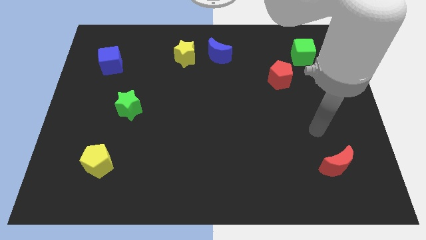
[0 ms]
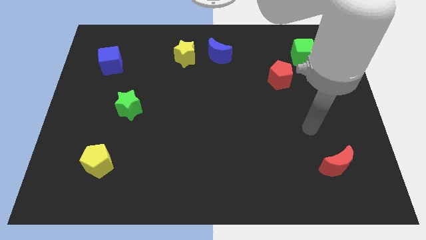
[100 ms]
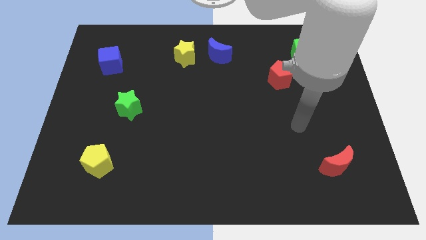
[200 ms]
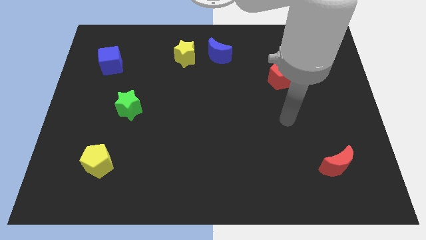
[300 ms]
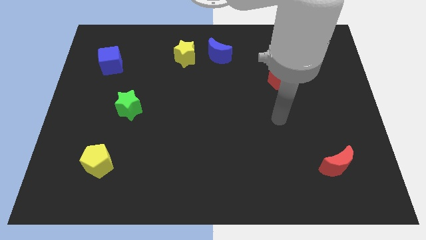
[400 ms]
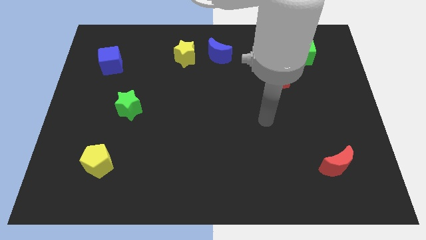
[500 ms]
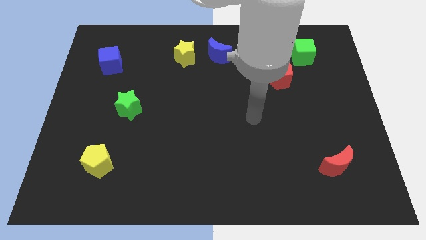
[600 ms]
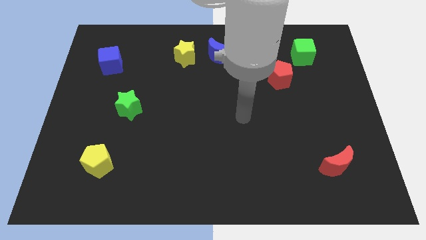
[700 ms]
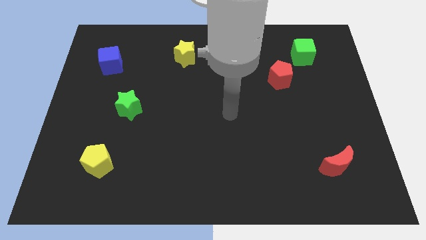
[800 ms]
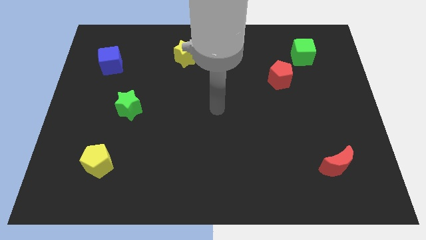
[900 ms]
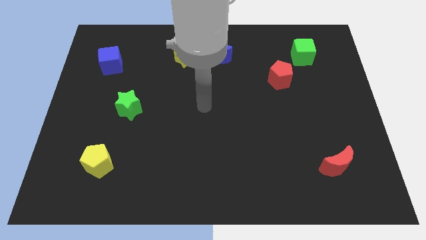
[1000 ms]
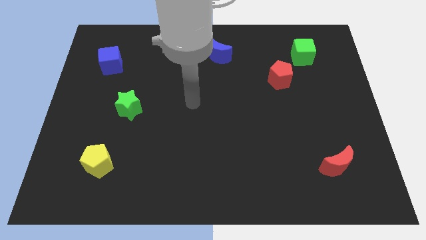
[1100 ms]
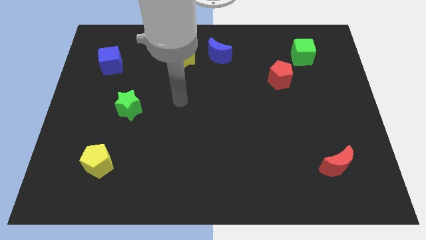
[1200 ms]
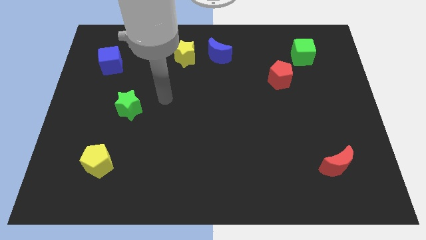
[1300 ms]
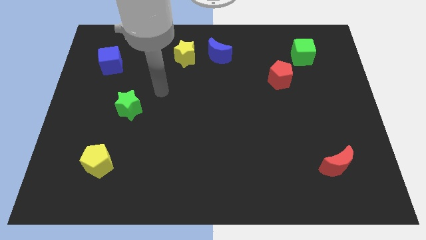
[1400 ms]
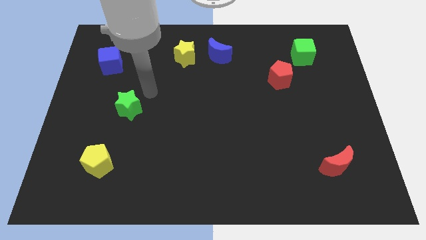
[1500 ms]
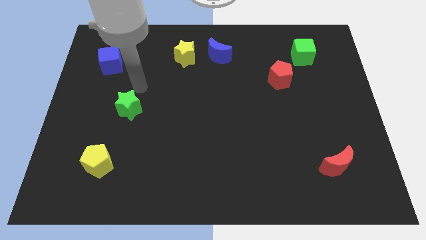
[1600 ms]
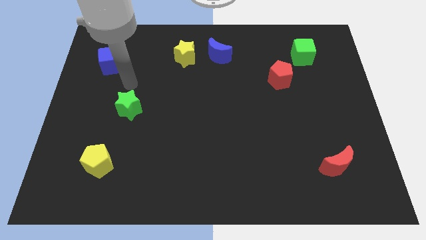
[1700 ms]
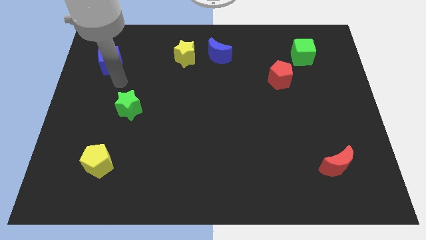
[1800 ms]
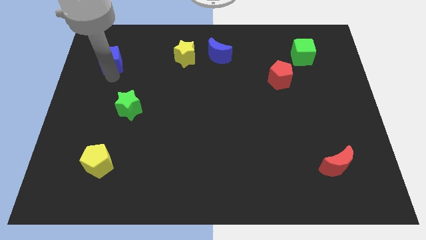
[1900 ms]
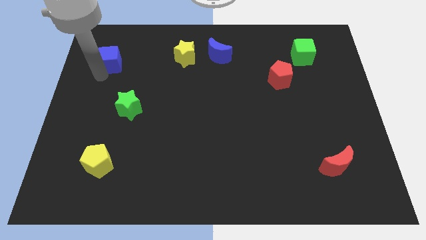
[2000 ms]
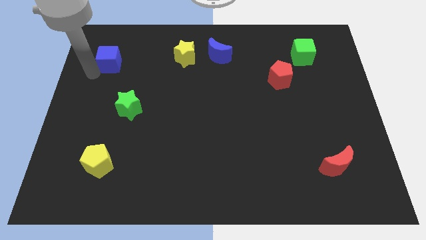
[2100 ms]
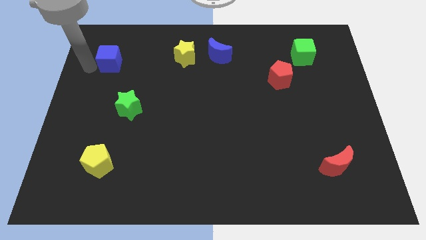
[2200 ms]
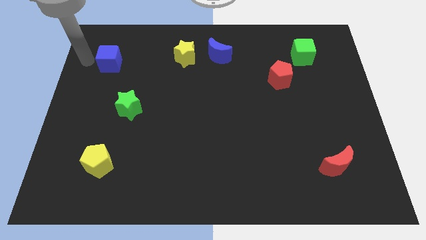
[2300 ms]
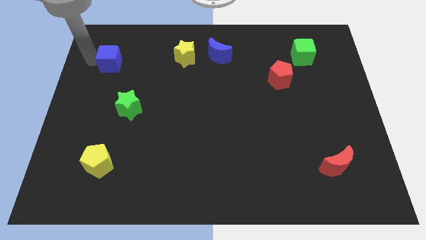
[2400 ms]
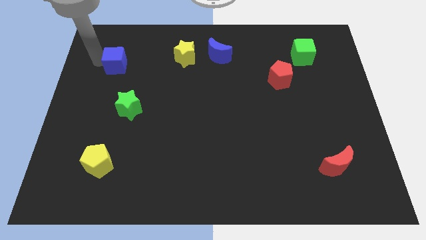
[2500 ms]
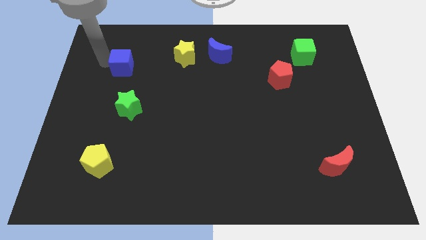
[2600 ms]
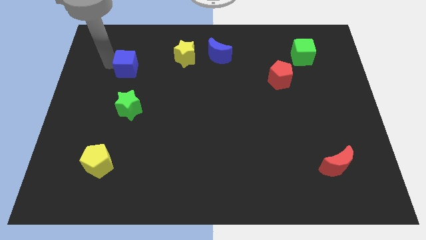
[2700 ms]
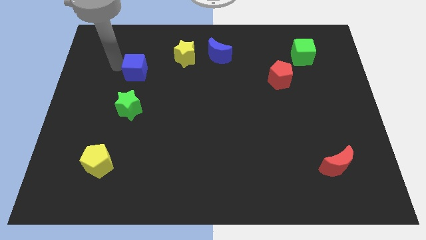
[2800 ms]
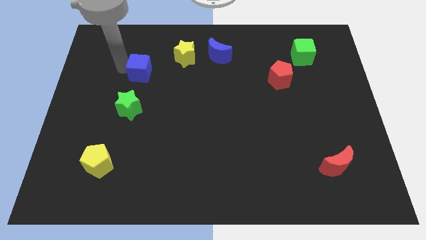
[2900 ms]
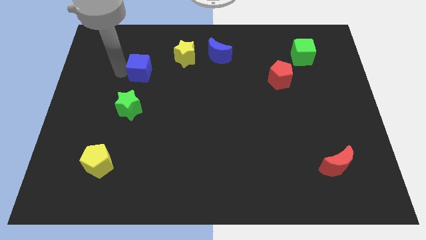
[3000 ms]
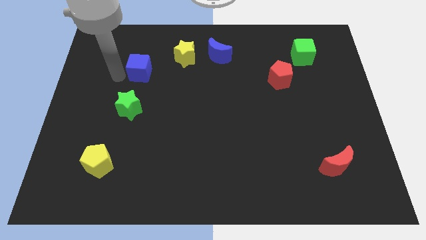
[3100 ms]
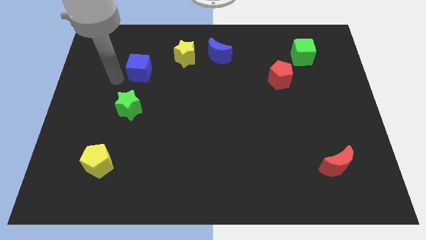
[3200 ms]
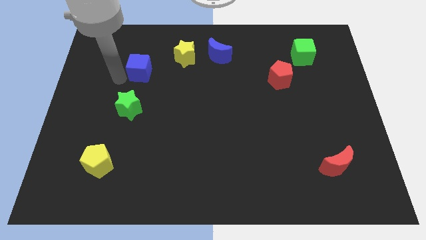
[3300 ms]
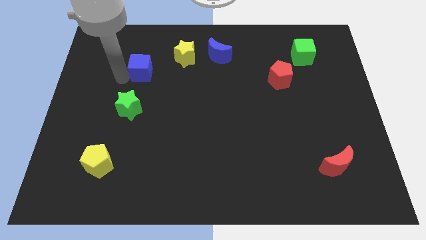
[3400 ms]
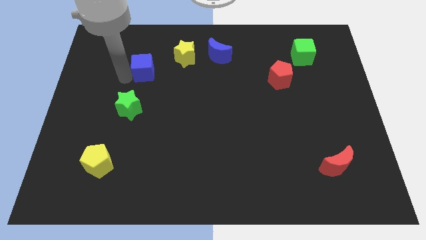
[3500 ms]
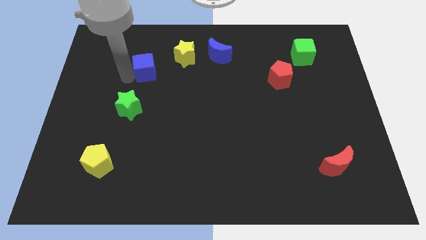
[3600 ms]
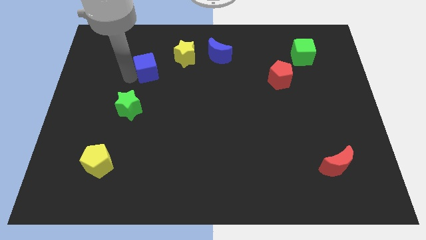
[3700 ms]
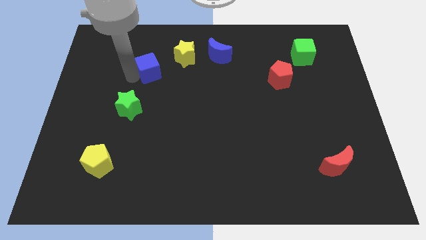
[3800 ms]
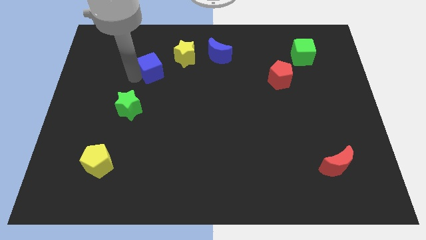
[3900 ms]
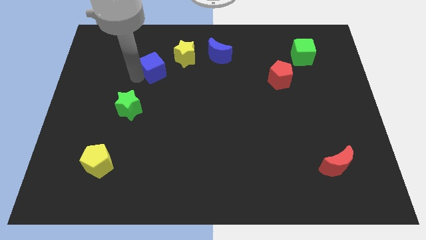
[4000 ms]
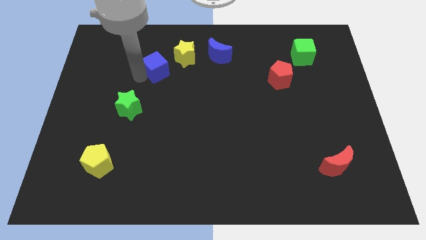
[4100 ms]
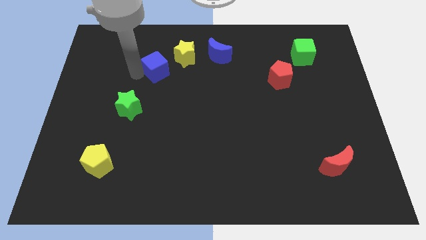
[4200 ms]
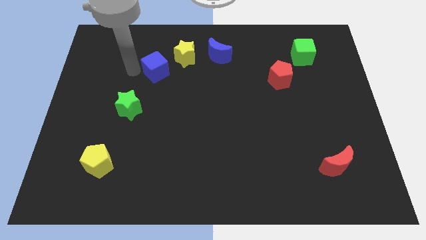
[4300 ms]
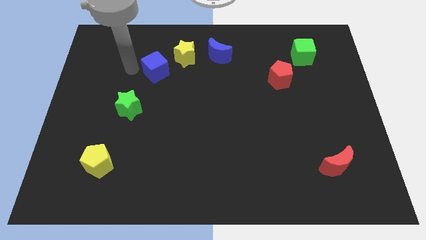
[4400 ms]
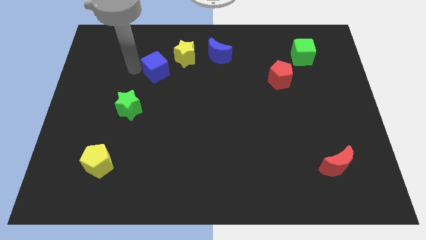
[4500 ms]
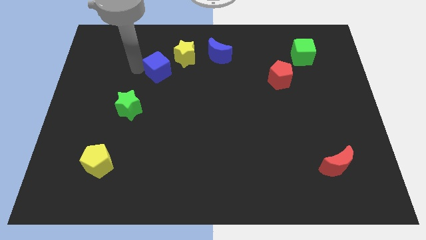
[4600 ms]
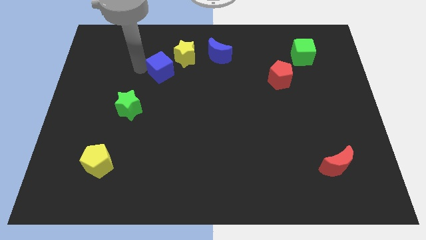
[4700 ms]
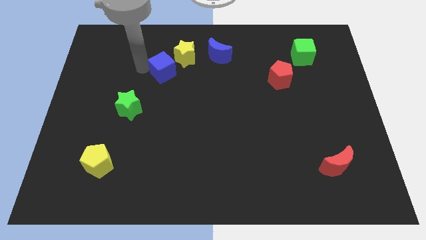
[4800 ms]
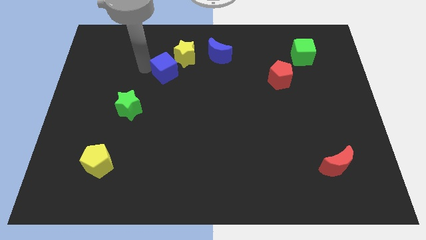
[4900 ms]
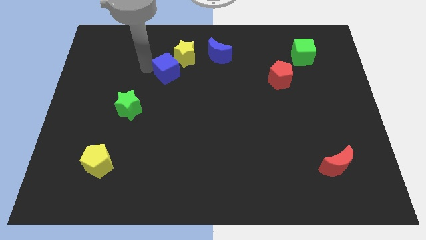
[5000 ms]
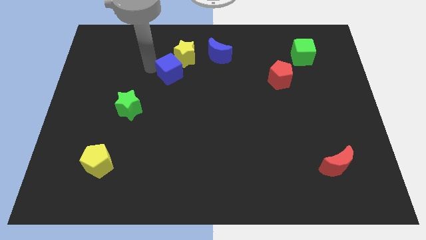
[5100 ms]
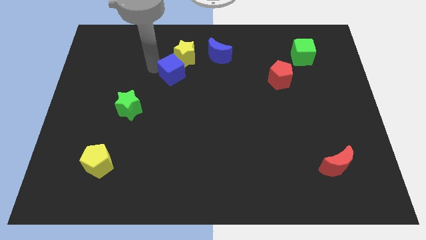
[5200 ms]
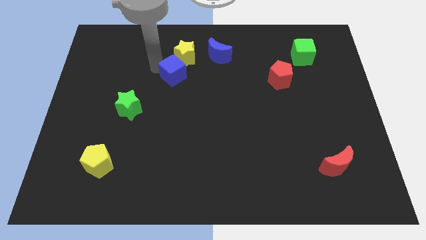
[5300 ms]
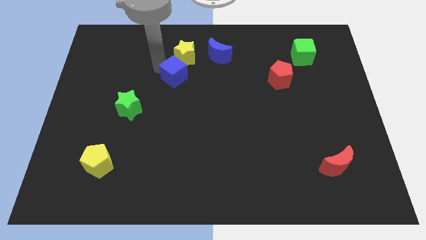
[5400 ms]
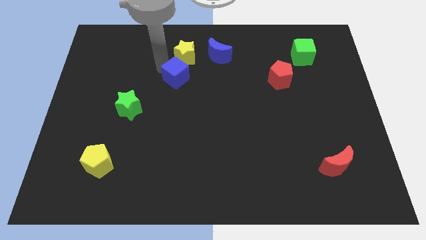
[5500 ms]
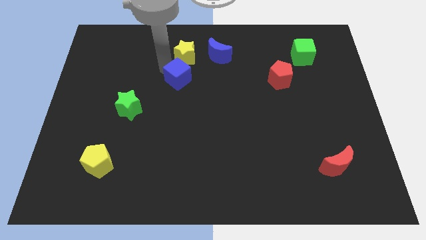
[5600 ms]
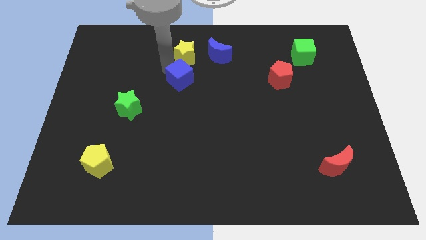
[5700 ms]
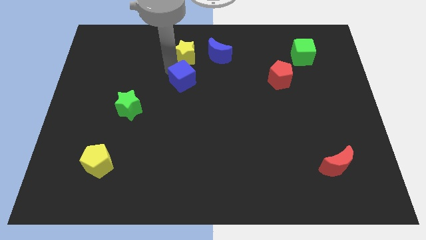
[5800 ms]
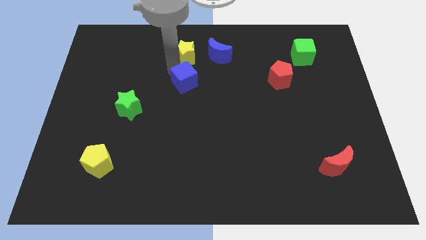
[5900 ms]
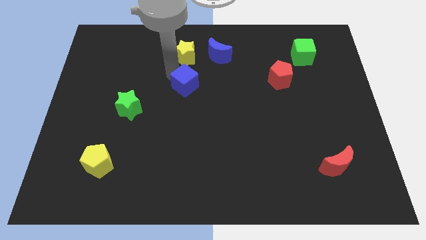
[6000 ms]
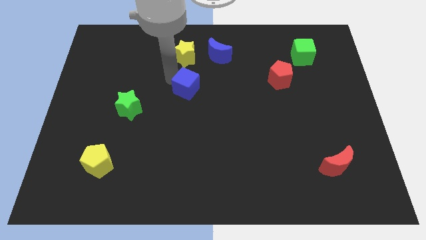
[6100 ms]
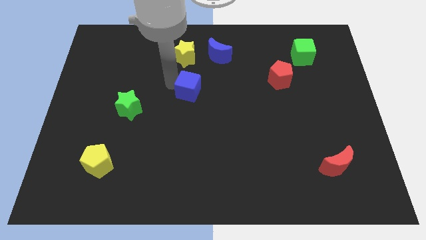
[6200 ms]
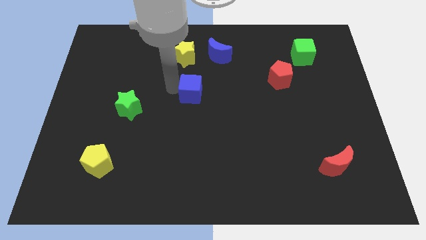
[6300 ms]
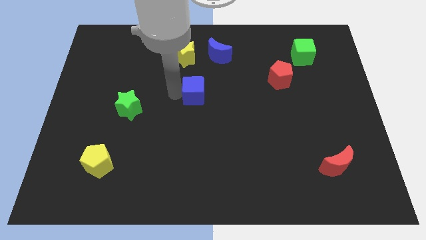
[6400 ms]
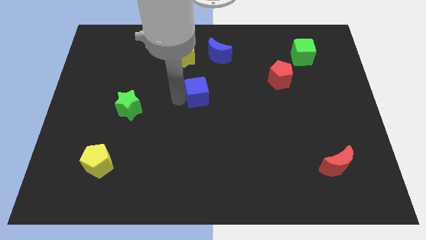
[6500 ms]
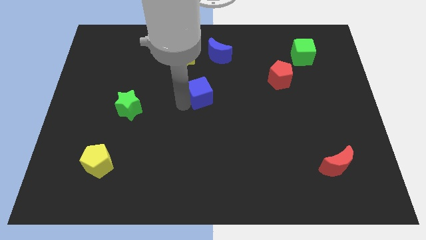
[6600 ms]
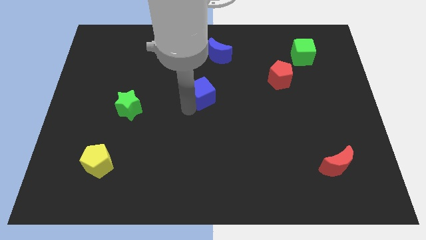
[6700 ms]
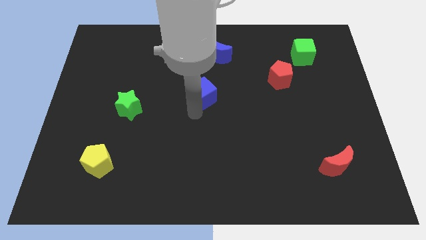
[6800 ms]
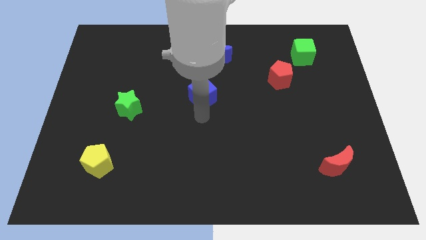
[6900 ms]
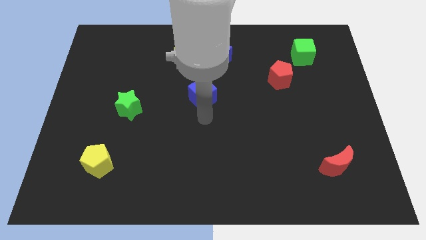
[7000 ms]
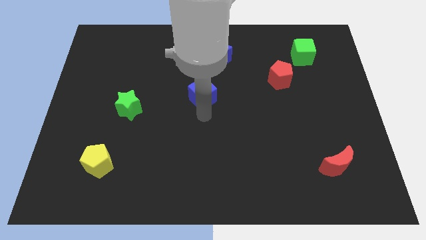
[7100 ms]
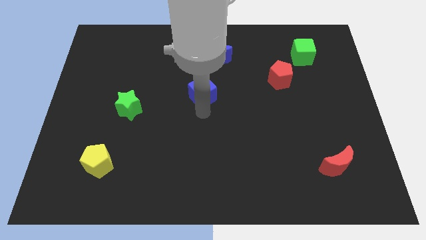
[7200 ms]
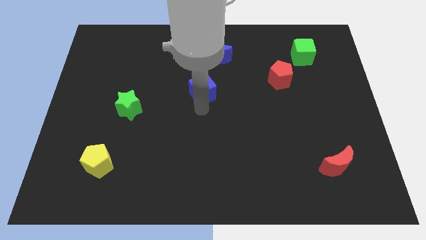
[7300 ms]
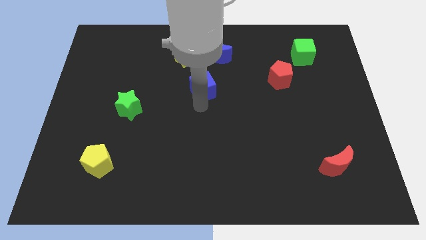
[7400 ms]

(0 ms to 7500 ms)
slide the blue cube right

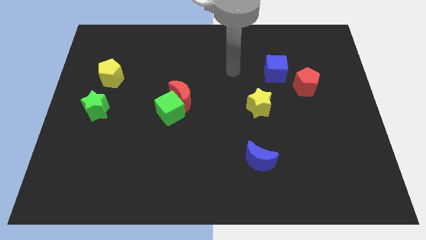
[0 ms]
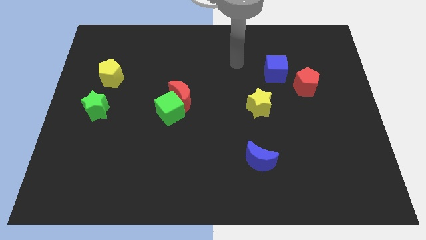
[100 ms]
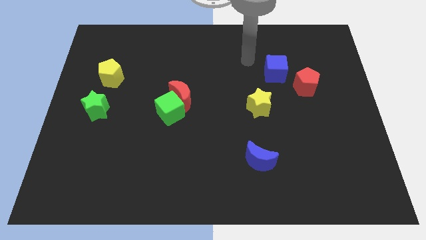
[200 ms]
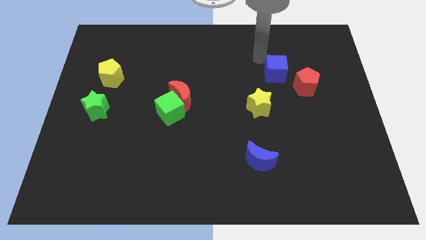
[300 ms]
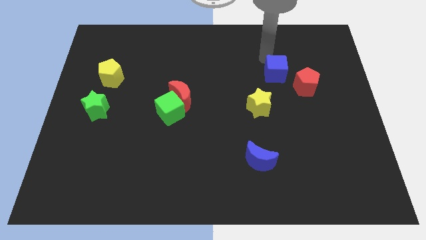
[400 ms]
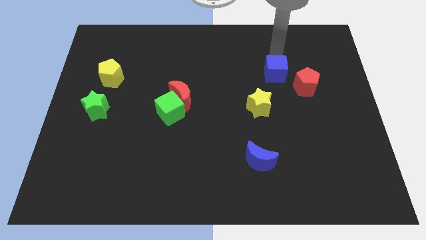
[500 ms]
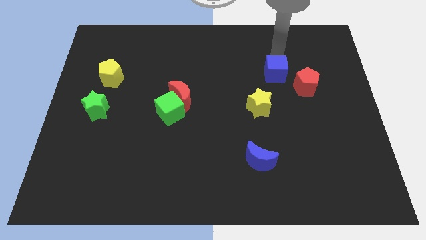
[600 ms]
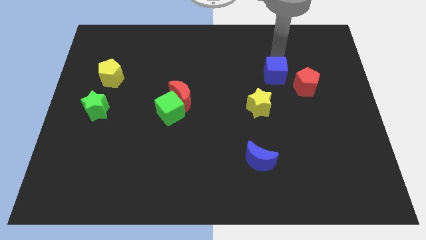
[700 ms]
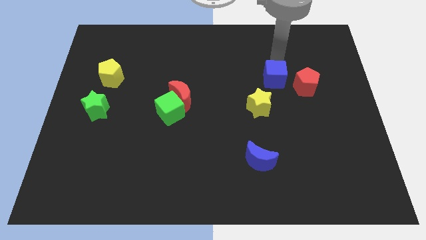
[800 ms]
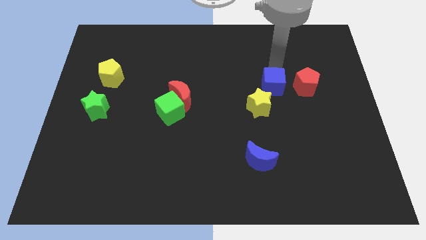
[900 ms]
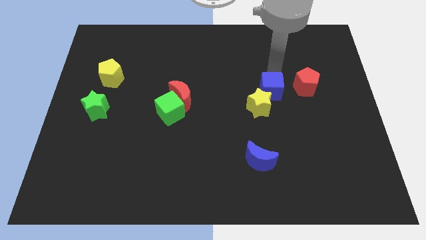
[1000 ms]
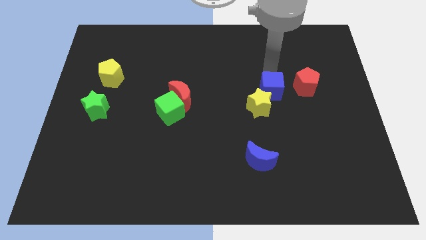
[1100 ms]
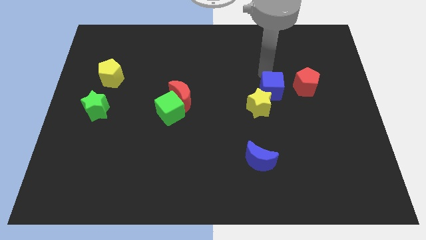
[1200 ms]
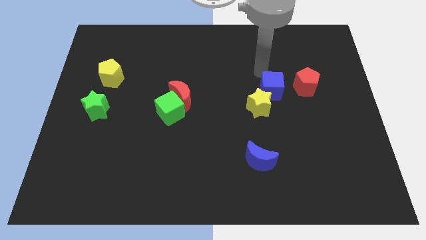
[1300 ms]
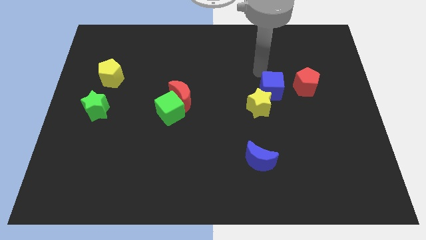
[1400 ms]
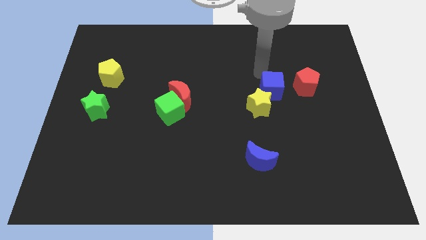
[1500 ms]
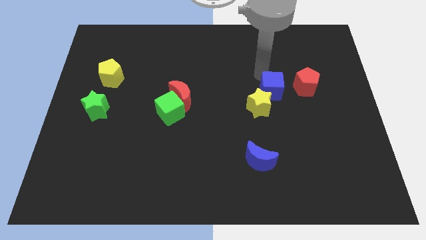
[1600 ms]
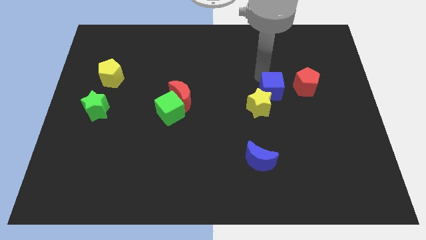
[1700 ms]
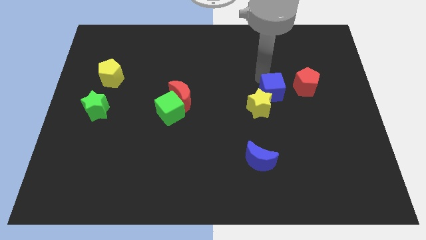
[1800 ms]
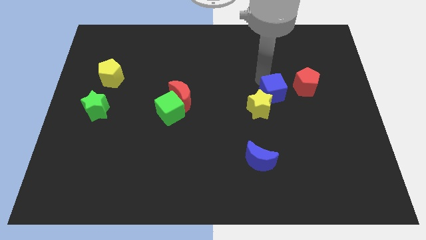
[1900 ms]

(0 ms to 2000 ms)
slightly move the blue cube down
